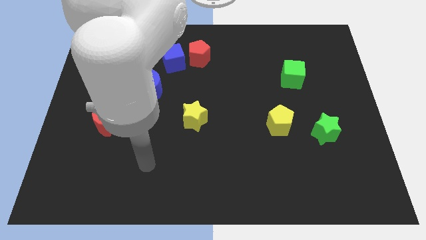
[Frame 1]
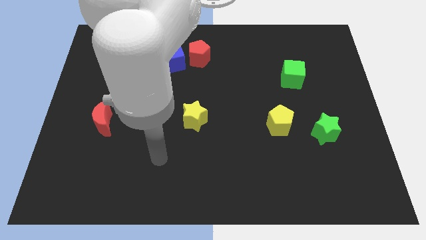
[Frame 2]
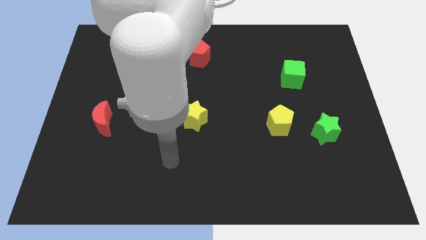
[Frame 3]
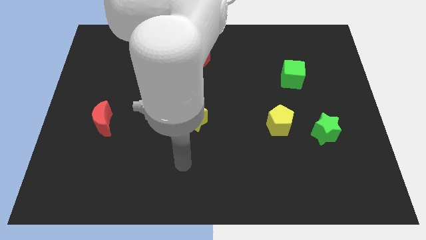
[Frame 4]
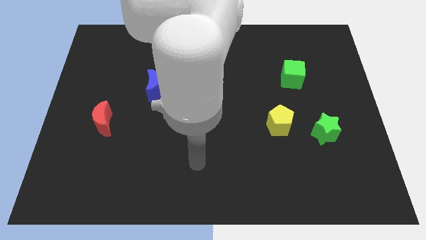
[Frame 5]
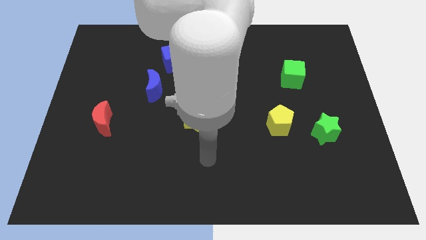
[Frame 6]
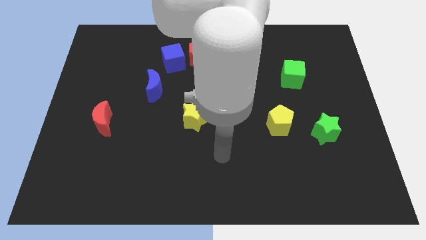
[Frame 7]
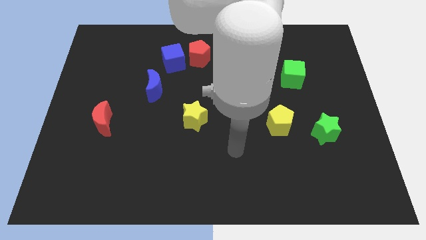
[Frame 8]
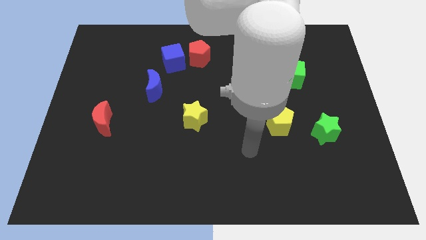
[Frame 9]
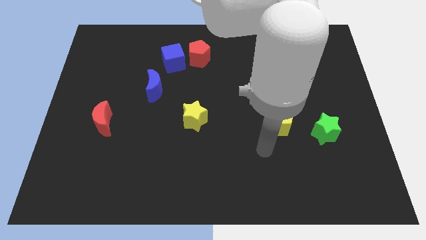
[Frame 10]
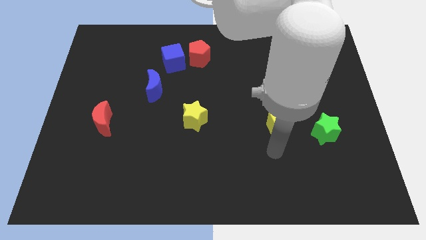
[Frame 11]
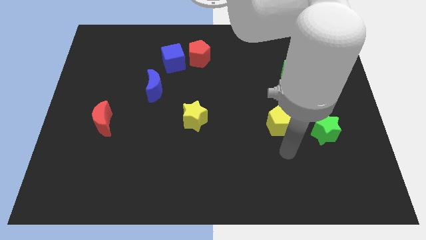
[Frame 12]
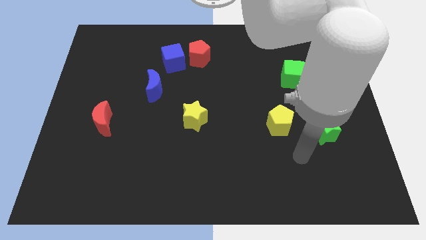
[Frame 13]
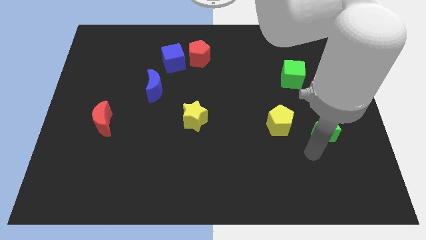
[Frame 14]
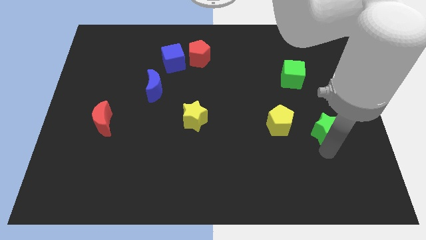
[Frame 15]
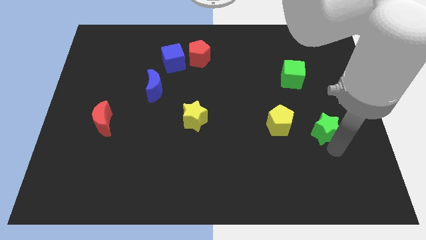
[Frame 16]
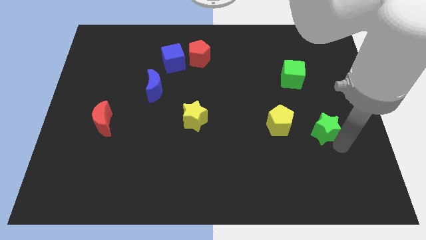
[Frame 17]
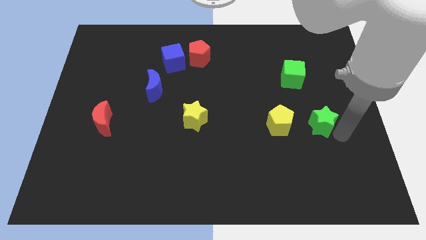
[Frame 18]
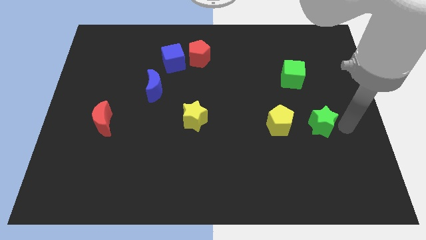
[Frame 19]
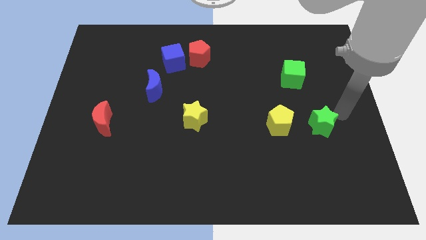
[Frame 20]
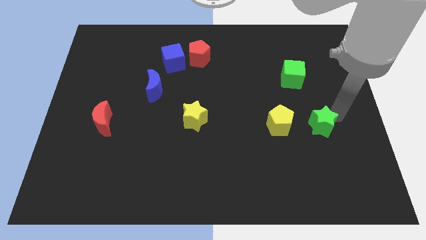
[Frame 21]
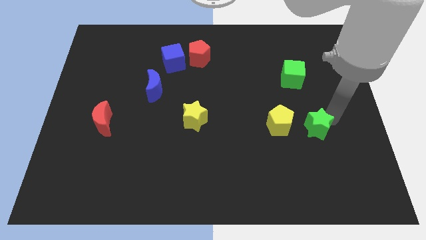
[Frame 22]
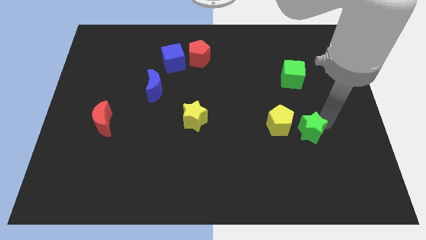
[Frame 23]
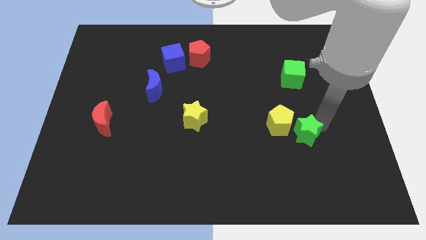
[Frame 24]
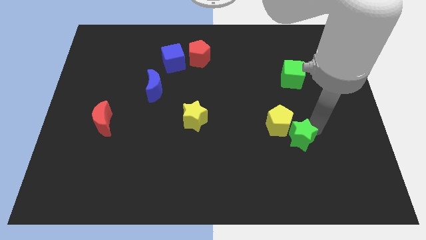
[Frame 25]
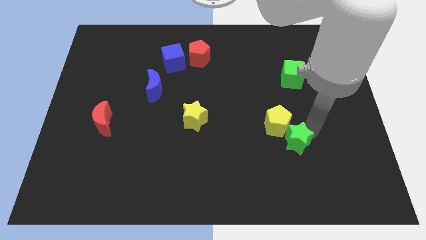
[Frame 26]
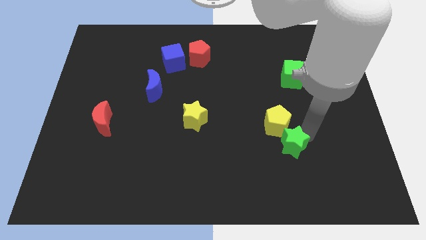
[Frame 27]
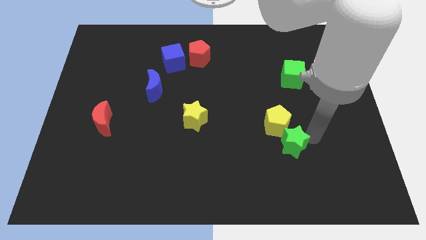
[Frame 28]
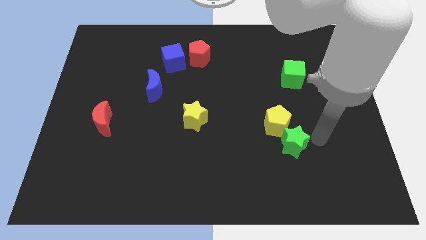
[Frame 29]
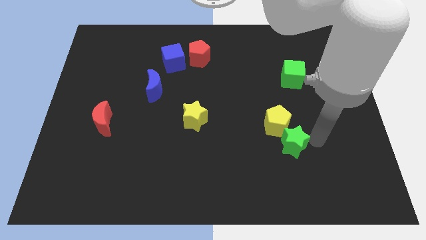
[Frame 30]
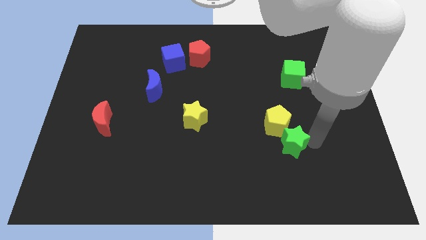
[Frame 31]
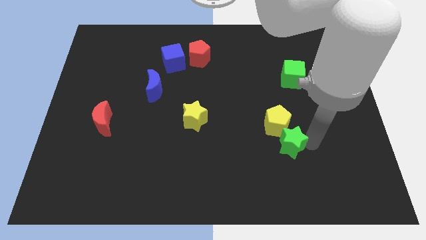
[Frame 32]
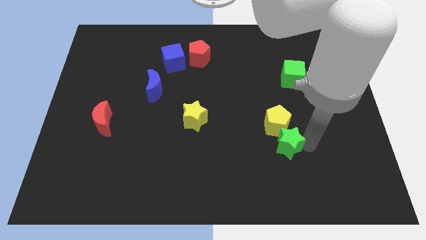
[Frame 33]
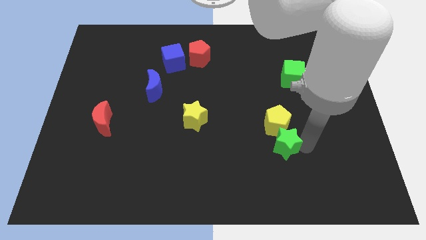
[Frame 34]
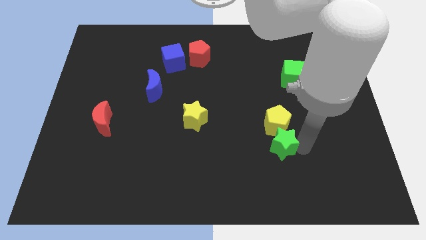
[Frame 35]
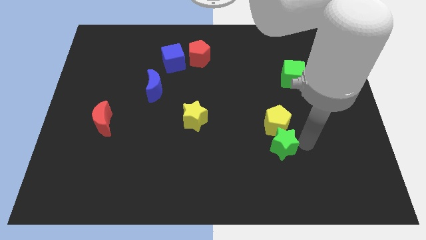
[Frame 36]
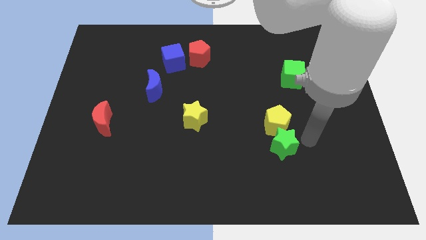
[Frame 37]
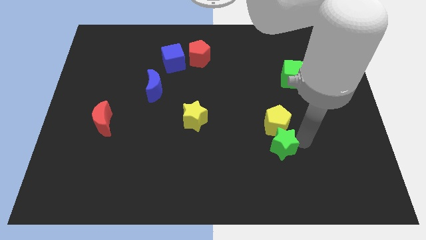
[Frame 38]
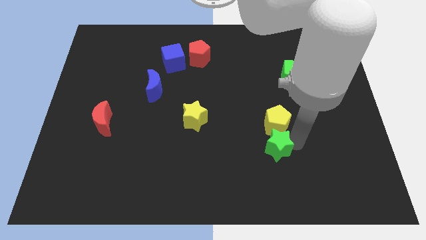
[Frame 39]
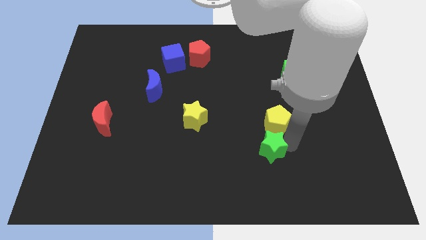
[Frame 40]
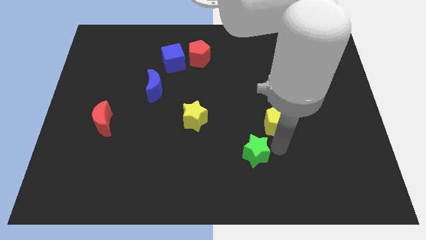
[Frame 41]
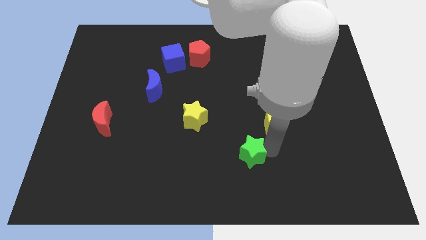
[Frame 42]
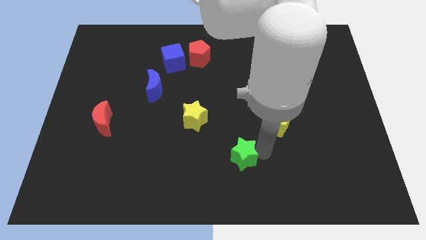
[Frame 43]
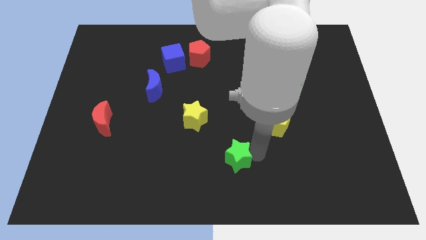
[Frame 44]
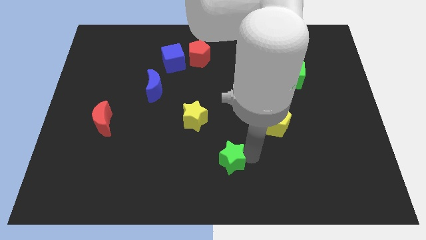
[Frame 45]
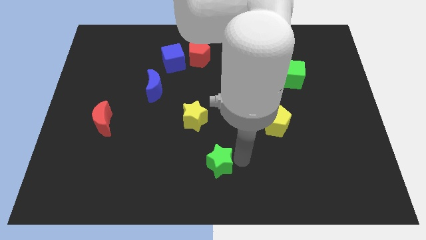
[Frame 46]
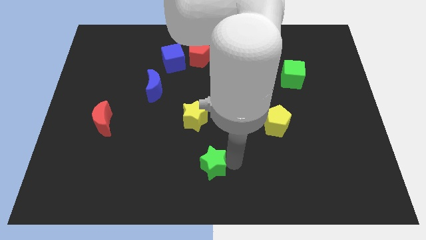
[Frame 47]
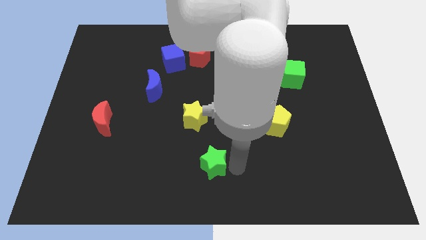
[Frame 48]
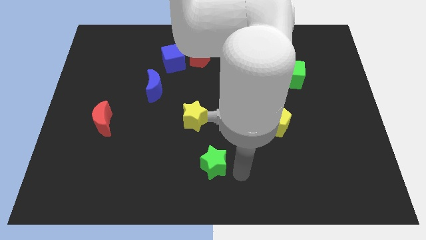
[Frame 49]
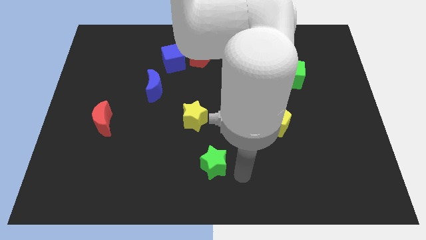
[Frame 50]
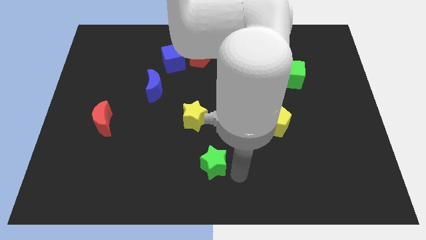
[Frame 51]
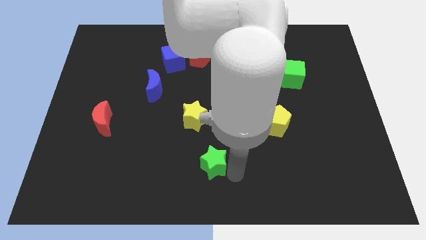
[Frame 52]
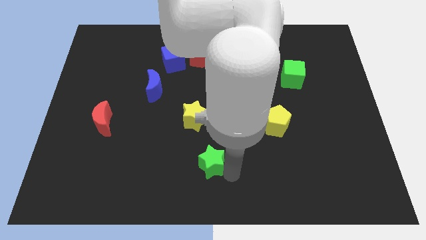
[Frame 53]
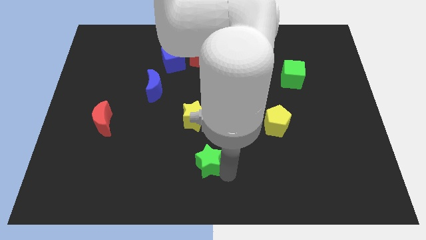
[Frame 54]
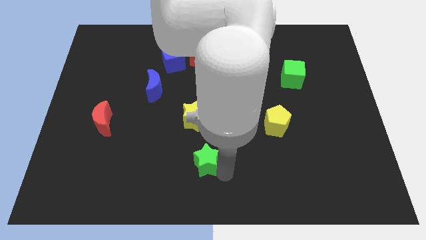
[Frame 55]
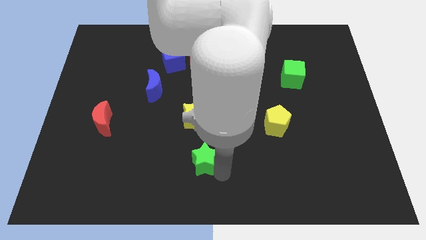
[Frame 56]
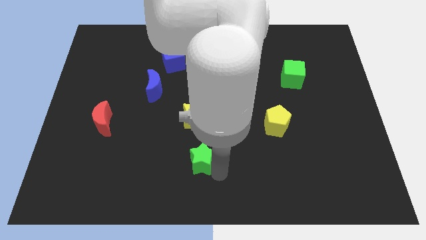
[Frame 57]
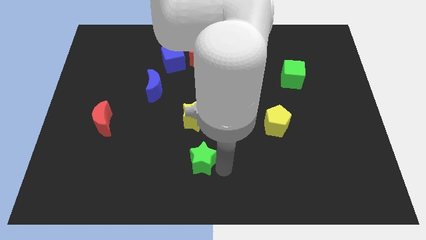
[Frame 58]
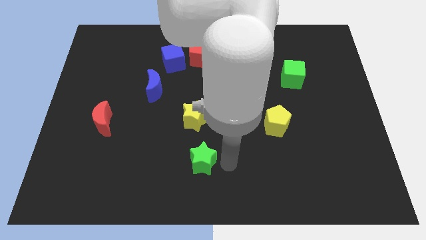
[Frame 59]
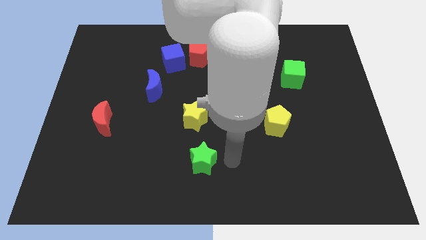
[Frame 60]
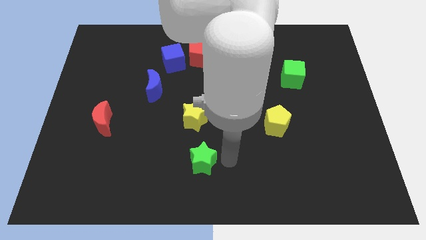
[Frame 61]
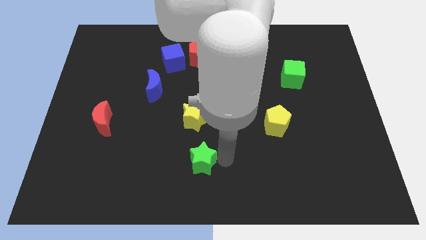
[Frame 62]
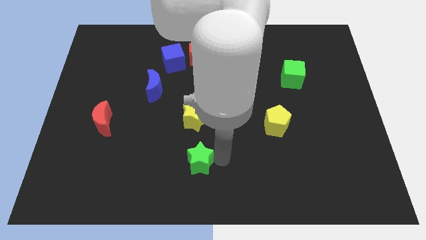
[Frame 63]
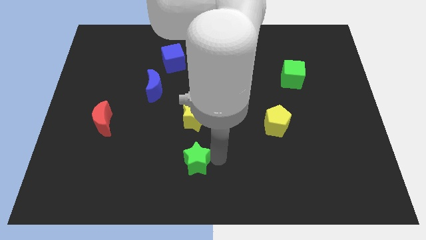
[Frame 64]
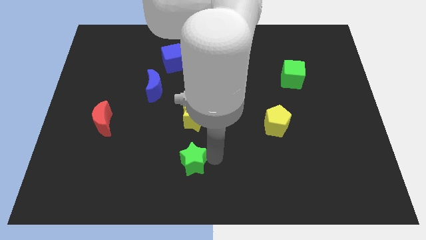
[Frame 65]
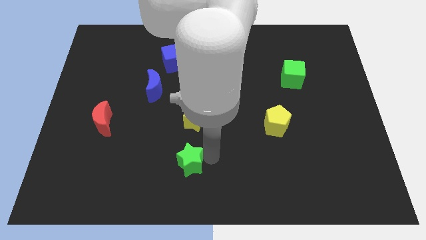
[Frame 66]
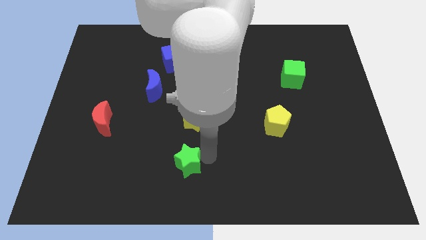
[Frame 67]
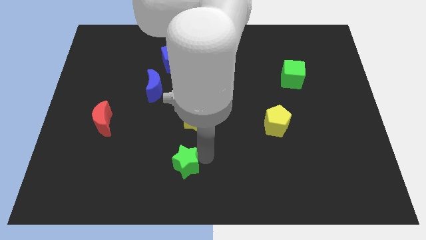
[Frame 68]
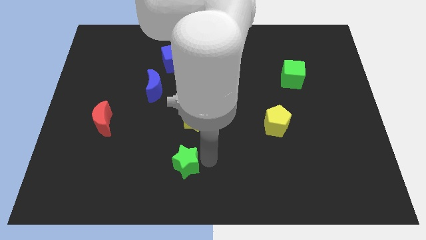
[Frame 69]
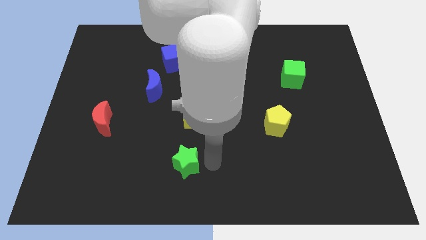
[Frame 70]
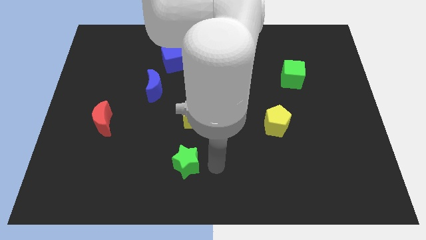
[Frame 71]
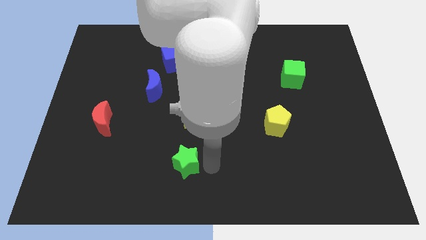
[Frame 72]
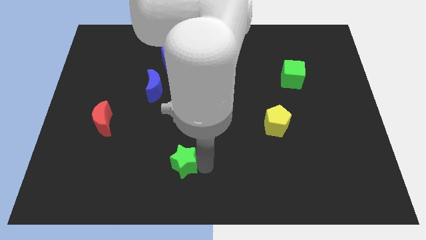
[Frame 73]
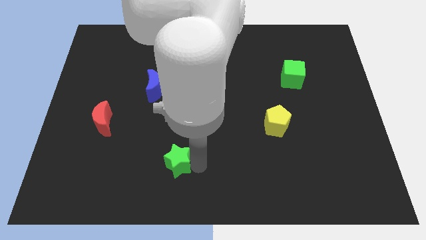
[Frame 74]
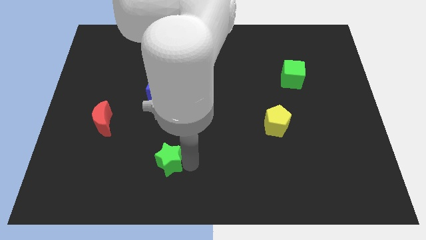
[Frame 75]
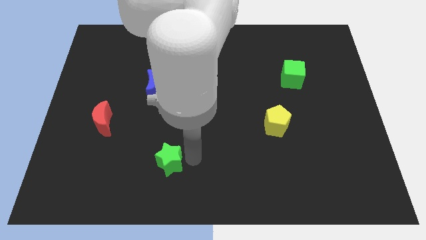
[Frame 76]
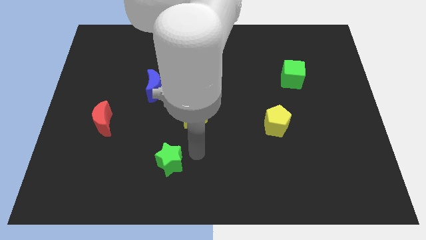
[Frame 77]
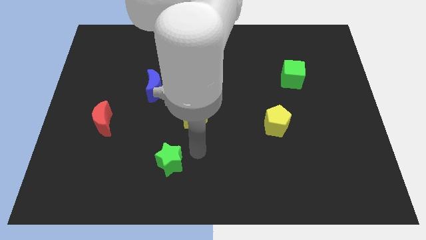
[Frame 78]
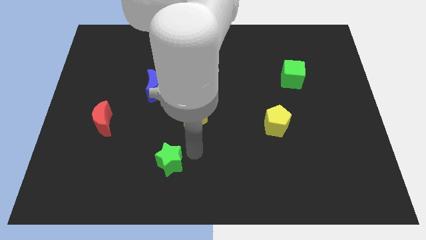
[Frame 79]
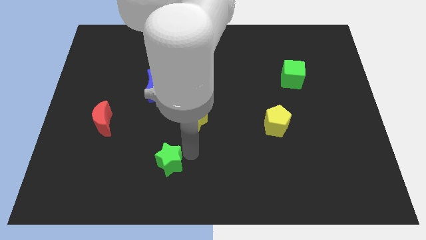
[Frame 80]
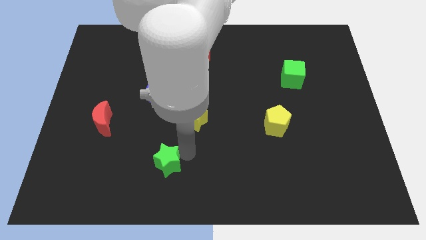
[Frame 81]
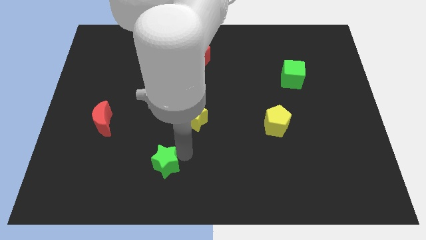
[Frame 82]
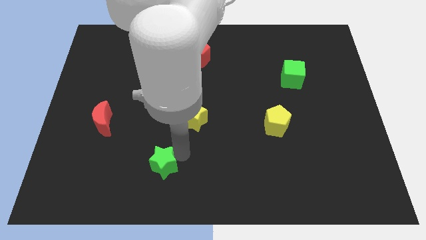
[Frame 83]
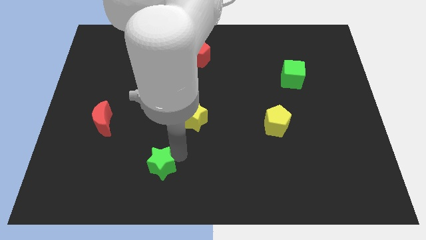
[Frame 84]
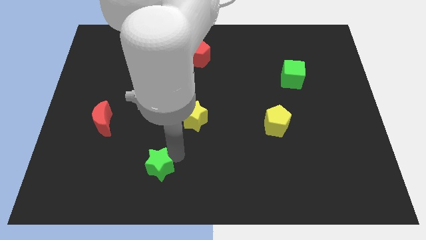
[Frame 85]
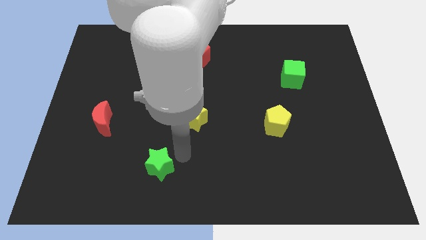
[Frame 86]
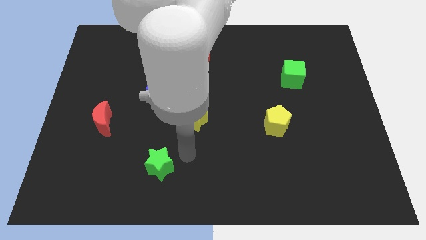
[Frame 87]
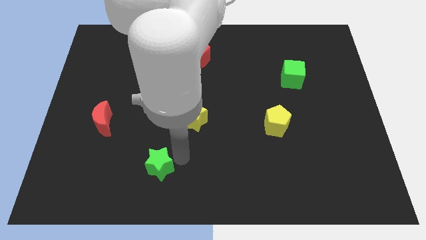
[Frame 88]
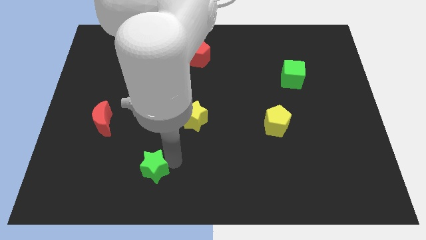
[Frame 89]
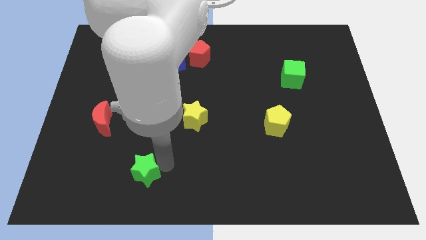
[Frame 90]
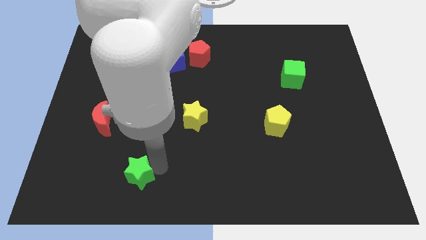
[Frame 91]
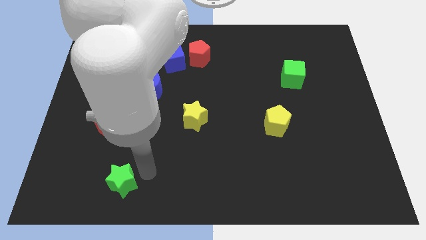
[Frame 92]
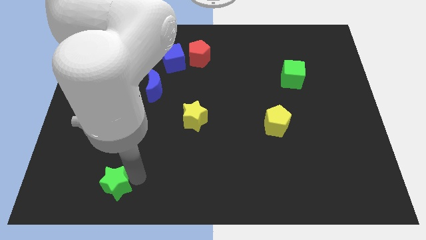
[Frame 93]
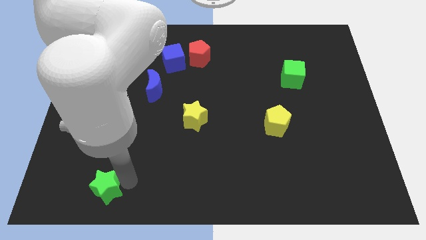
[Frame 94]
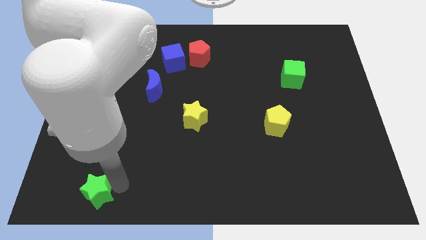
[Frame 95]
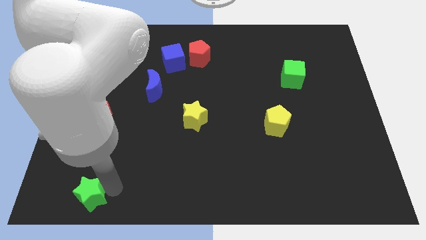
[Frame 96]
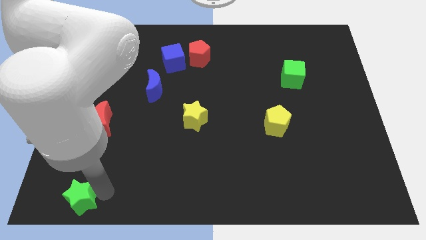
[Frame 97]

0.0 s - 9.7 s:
push the green star to the bottom left corner
